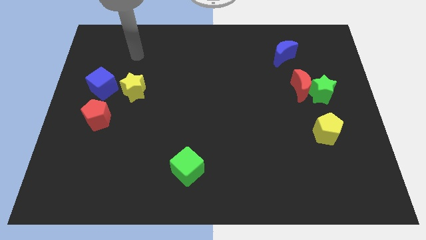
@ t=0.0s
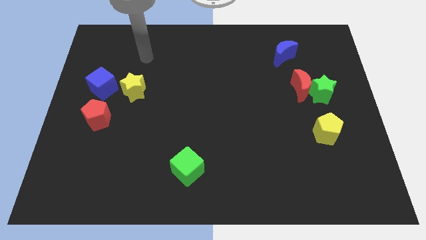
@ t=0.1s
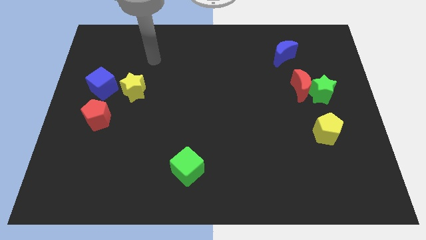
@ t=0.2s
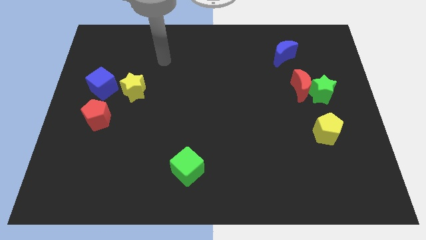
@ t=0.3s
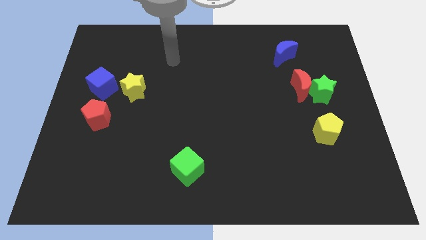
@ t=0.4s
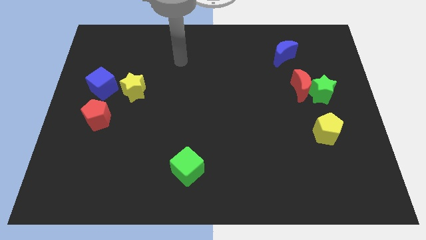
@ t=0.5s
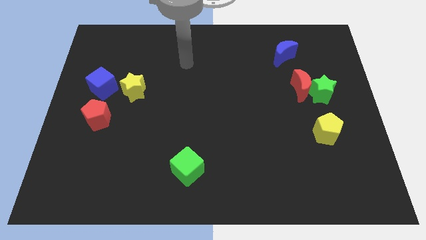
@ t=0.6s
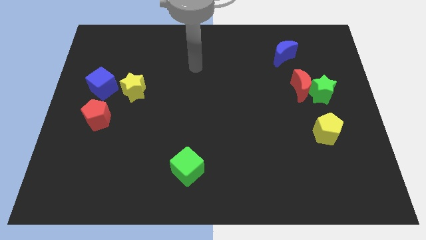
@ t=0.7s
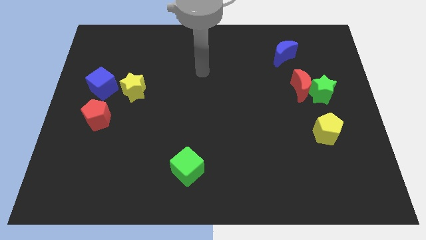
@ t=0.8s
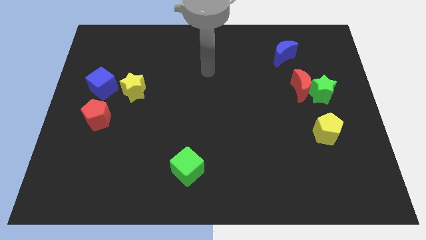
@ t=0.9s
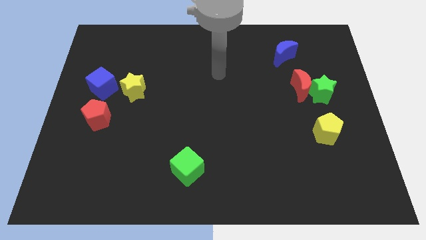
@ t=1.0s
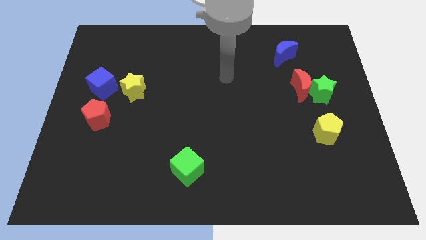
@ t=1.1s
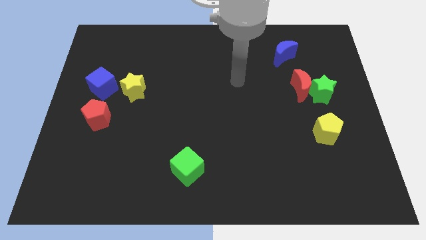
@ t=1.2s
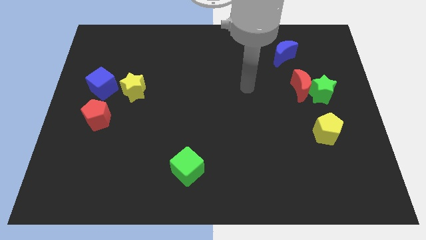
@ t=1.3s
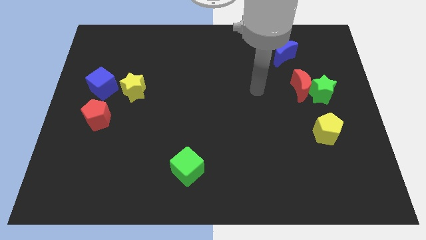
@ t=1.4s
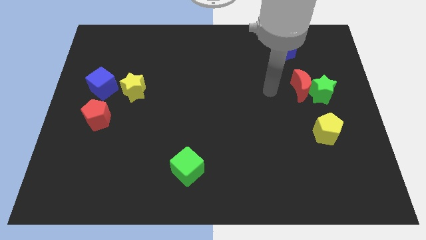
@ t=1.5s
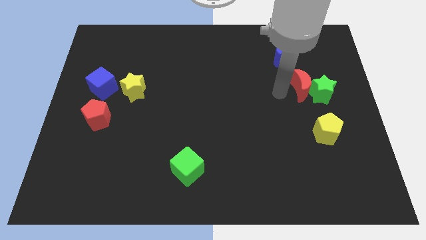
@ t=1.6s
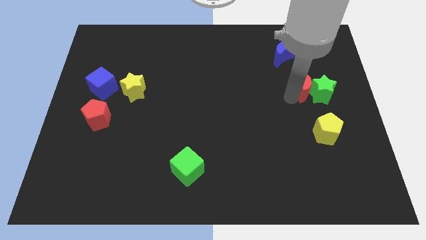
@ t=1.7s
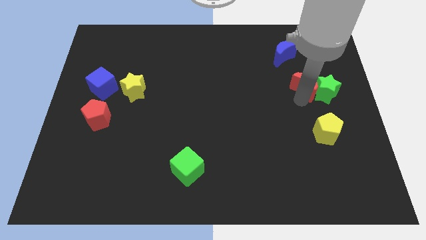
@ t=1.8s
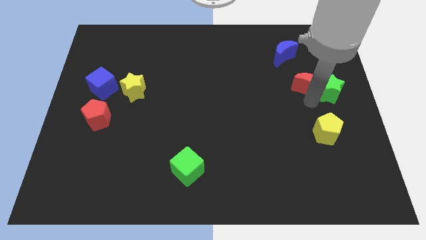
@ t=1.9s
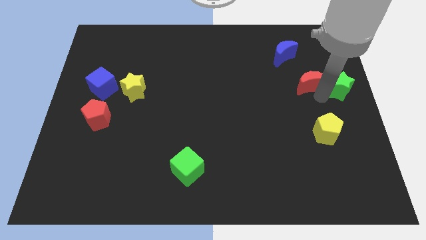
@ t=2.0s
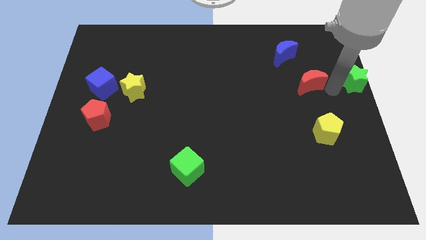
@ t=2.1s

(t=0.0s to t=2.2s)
pull the red moon apart from the green star

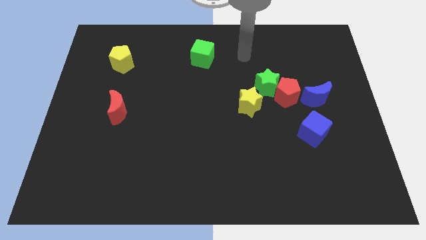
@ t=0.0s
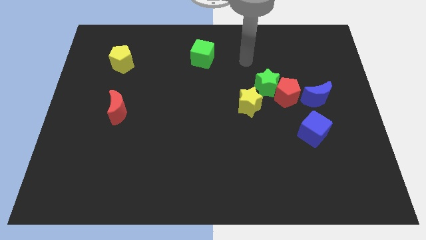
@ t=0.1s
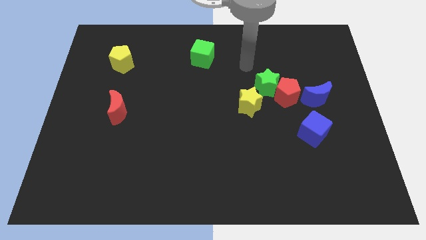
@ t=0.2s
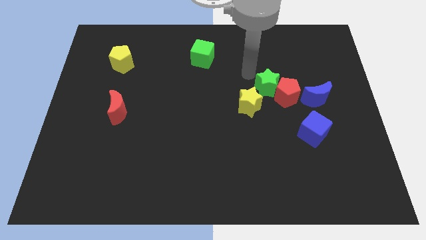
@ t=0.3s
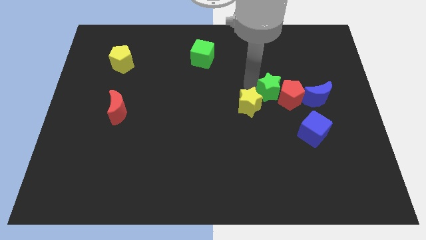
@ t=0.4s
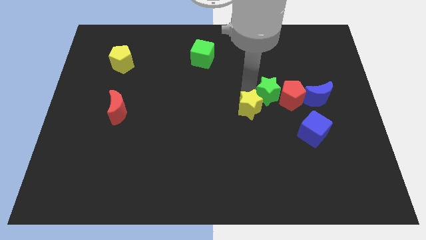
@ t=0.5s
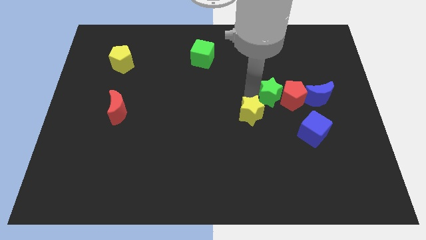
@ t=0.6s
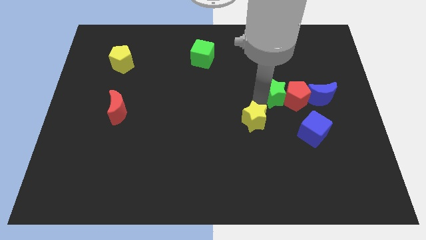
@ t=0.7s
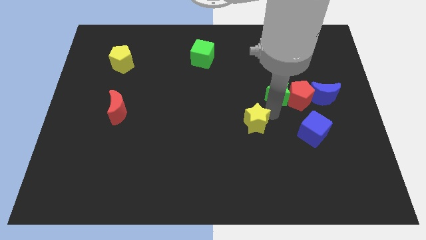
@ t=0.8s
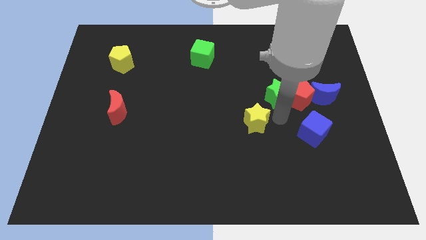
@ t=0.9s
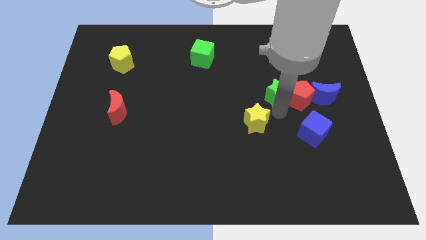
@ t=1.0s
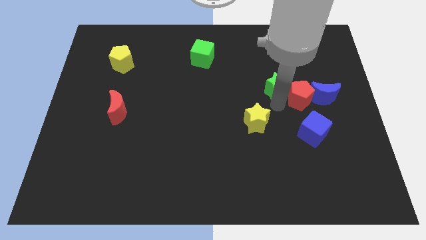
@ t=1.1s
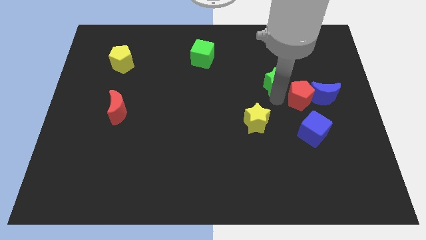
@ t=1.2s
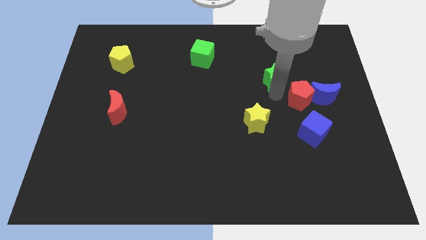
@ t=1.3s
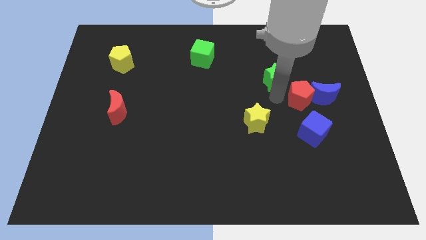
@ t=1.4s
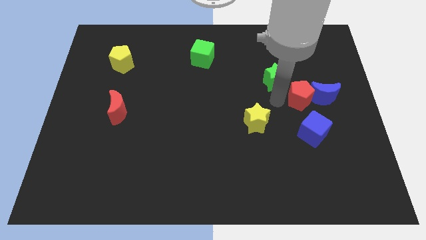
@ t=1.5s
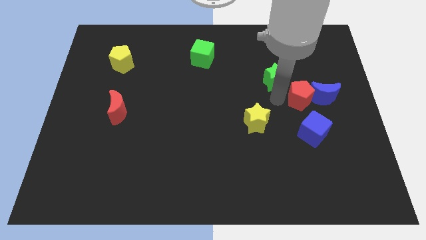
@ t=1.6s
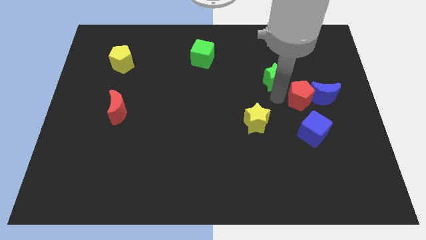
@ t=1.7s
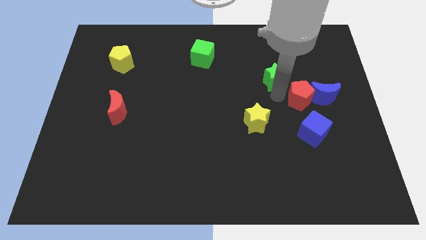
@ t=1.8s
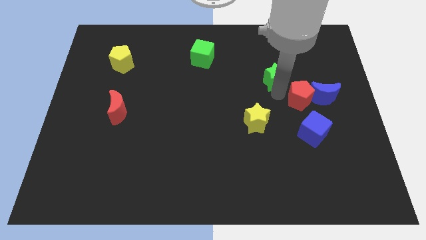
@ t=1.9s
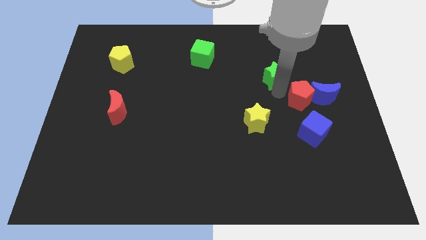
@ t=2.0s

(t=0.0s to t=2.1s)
separate the green star from the red pentagon and yellow star

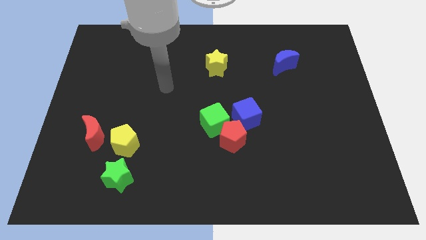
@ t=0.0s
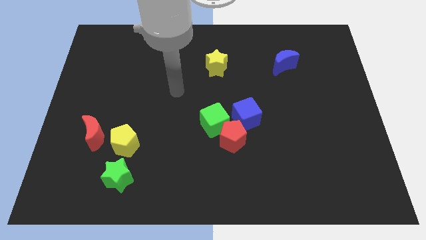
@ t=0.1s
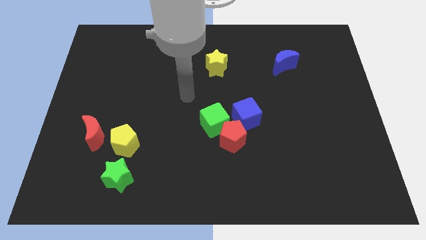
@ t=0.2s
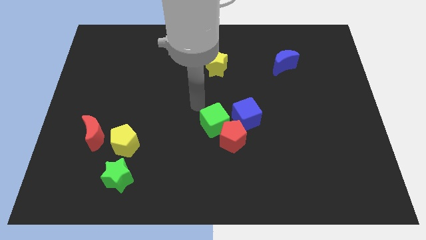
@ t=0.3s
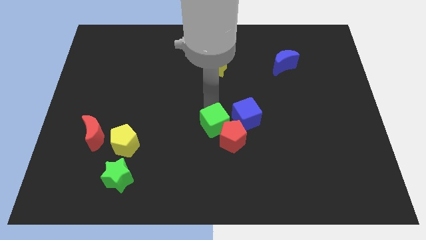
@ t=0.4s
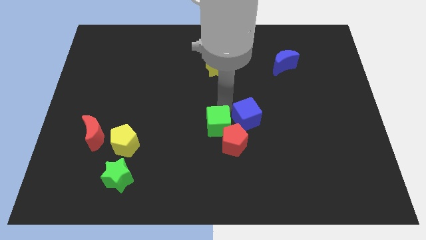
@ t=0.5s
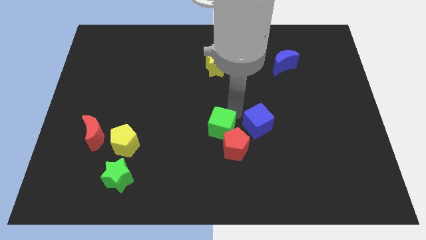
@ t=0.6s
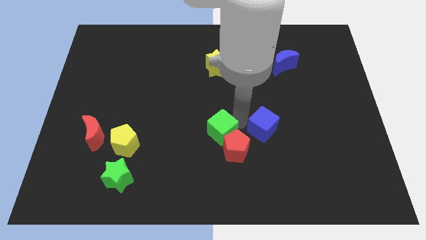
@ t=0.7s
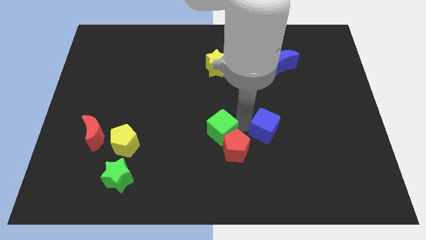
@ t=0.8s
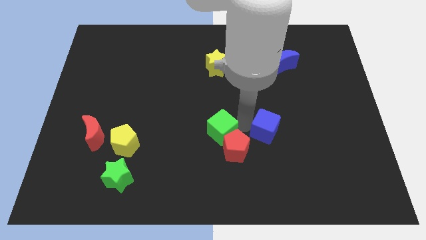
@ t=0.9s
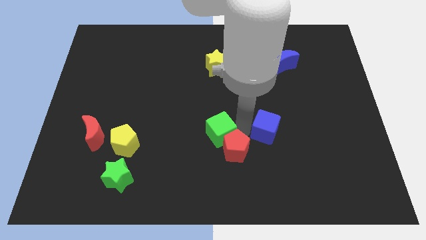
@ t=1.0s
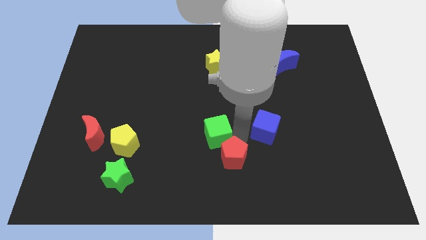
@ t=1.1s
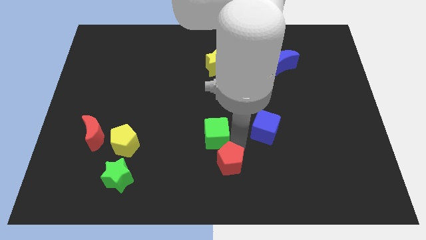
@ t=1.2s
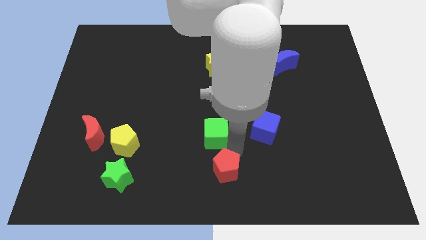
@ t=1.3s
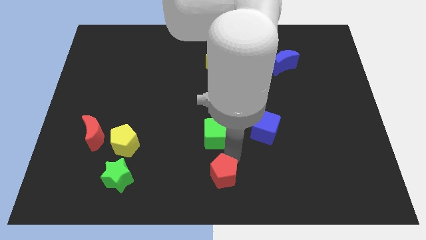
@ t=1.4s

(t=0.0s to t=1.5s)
separate the red pentagon from the green cube and blue cube

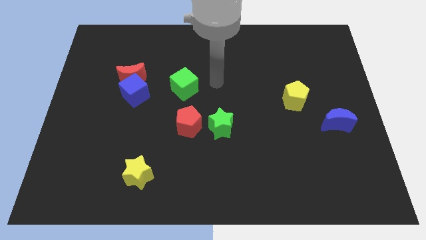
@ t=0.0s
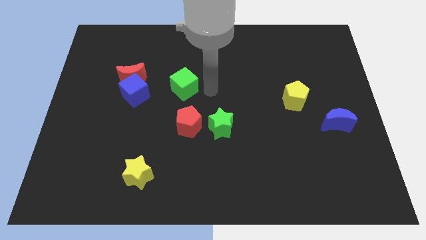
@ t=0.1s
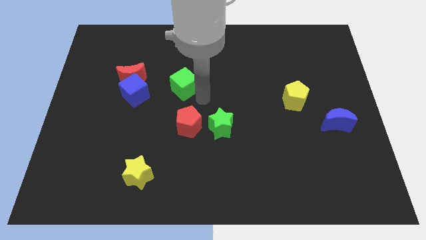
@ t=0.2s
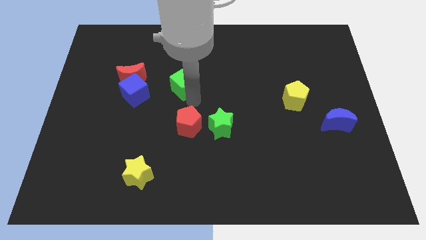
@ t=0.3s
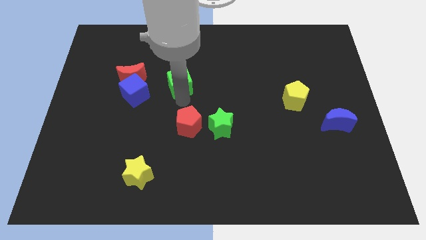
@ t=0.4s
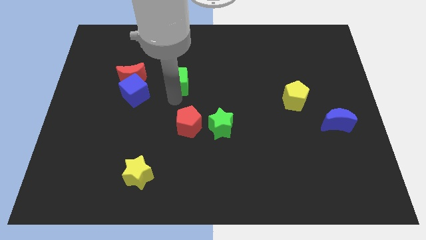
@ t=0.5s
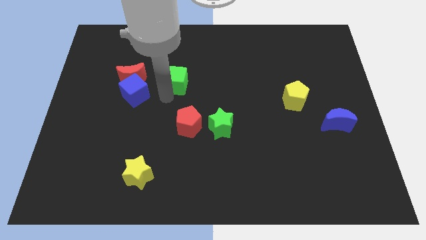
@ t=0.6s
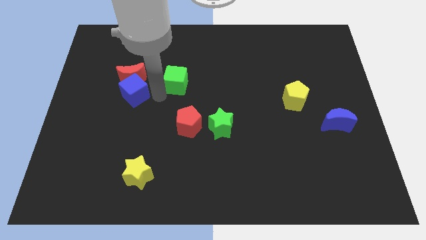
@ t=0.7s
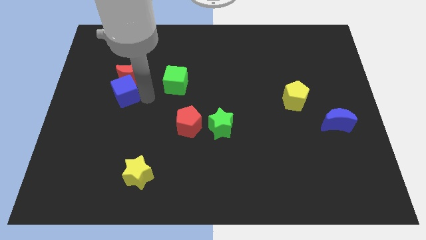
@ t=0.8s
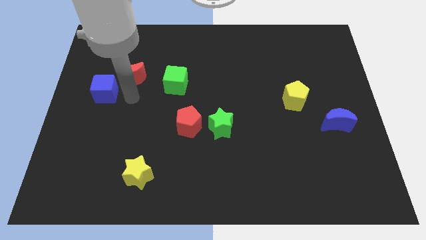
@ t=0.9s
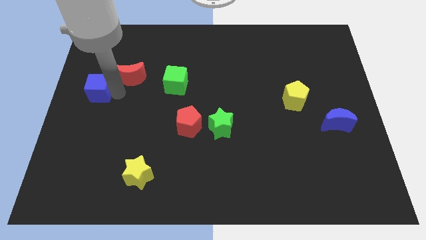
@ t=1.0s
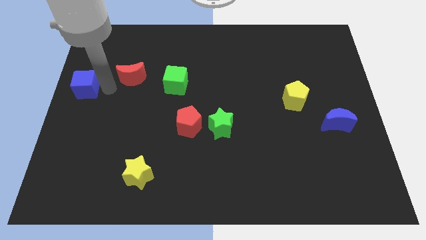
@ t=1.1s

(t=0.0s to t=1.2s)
move the red moon away from the blue cube

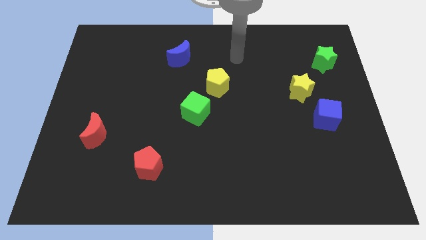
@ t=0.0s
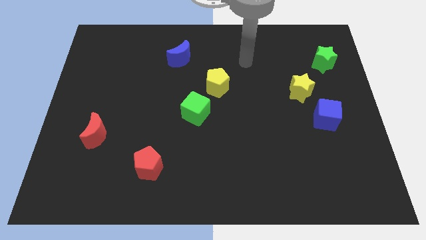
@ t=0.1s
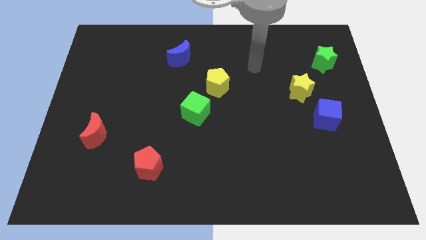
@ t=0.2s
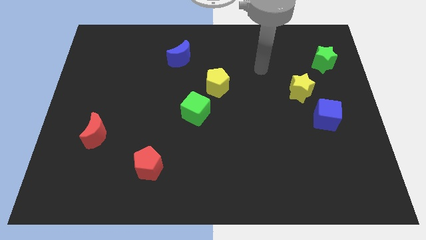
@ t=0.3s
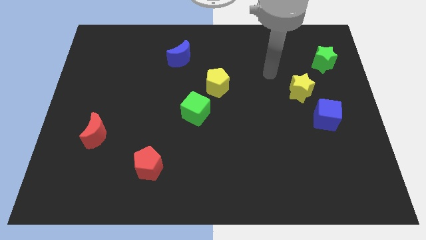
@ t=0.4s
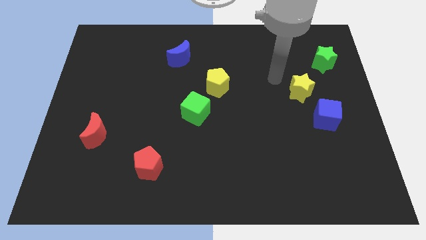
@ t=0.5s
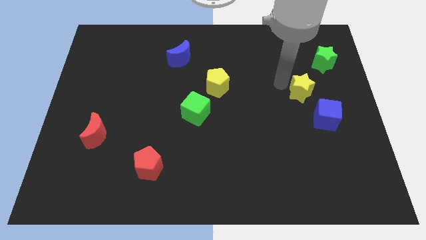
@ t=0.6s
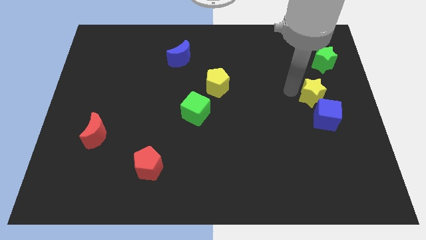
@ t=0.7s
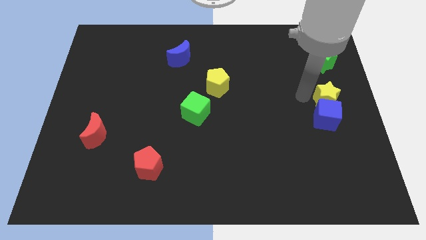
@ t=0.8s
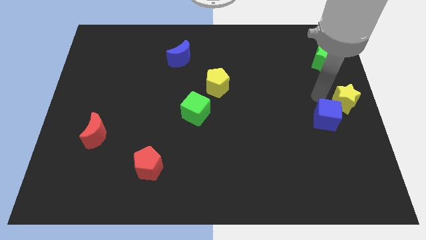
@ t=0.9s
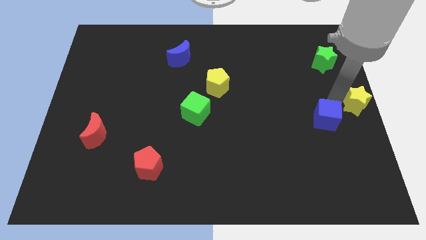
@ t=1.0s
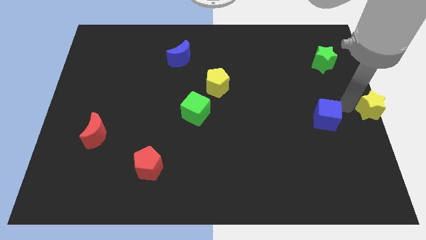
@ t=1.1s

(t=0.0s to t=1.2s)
separate the blue cube from the yellow star

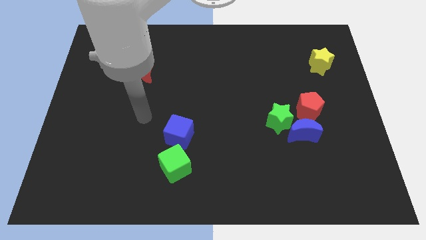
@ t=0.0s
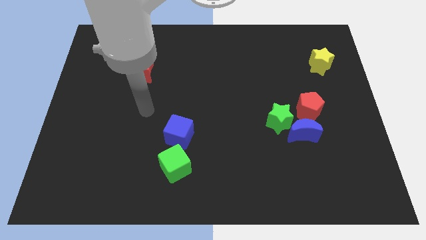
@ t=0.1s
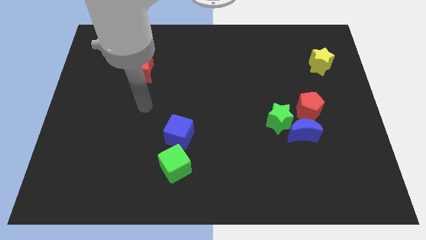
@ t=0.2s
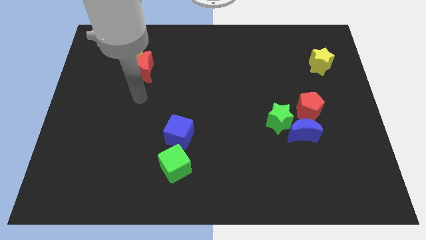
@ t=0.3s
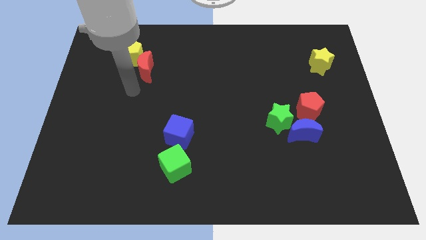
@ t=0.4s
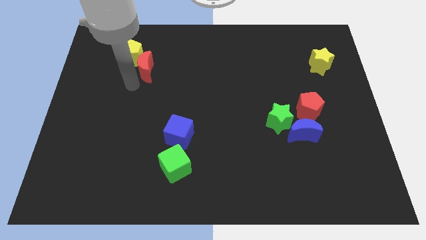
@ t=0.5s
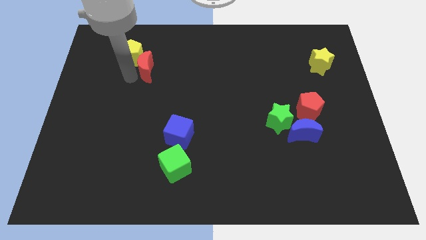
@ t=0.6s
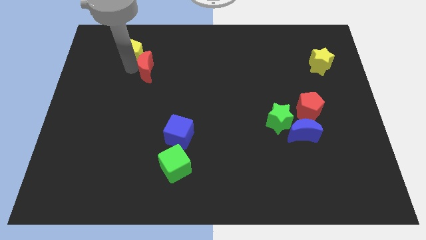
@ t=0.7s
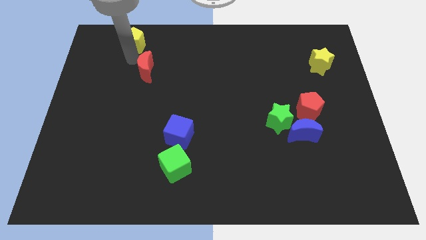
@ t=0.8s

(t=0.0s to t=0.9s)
move the red moon away from the yellow pentagon
